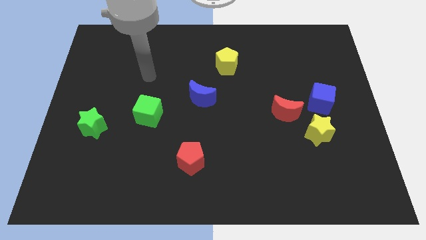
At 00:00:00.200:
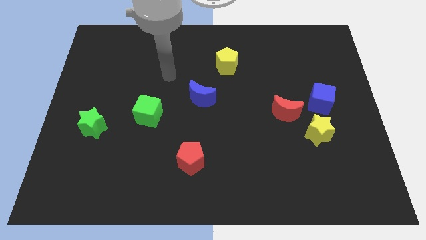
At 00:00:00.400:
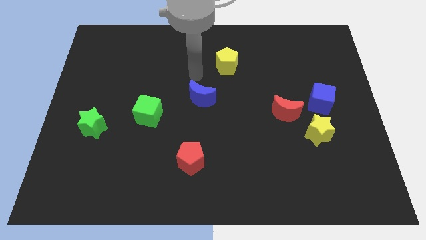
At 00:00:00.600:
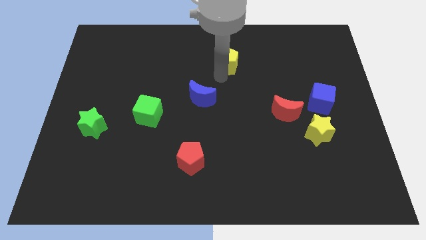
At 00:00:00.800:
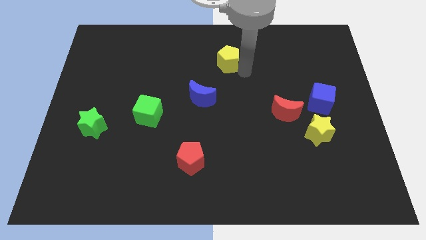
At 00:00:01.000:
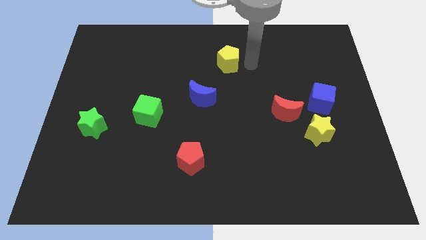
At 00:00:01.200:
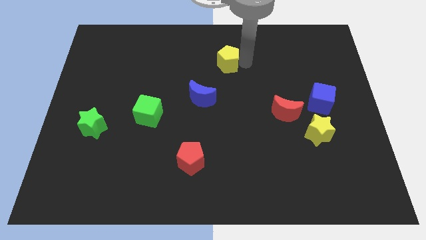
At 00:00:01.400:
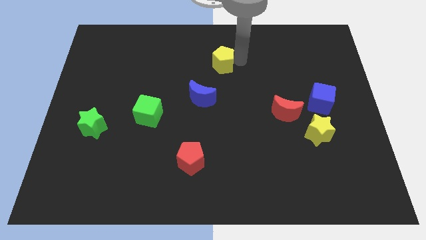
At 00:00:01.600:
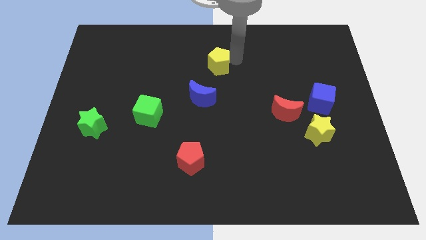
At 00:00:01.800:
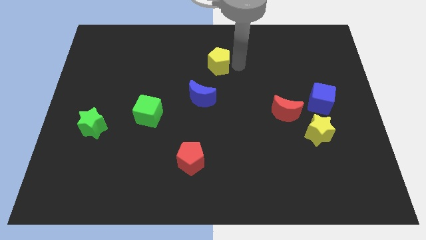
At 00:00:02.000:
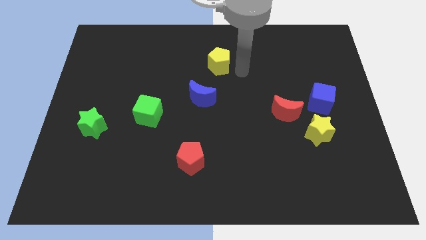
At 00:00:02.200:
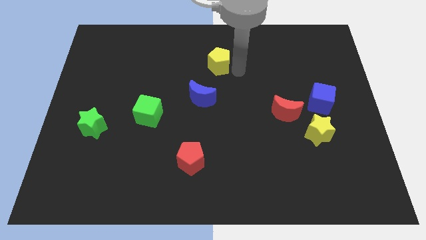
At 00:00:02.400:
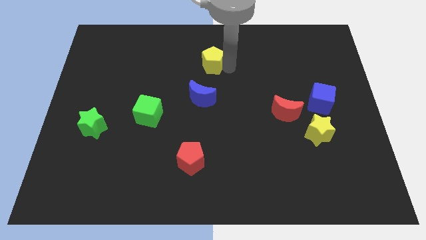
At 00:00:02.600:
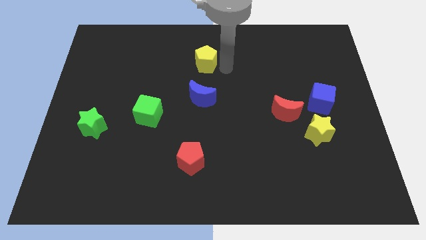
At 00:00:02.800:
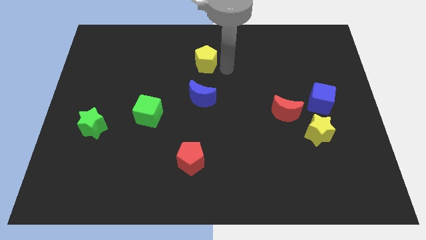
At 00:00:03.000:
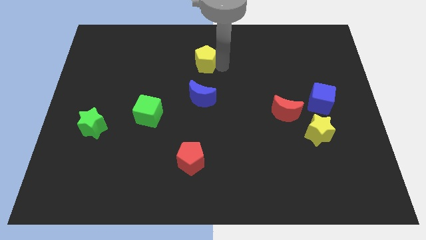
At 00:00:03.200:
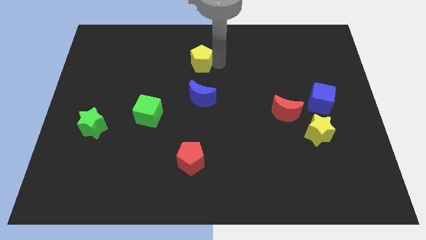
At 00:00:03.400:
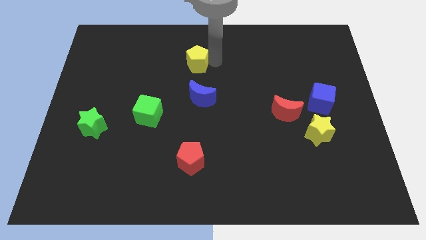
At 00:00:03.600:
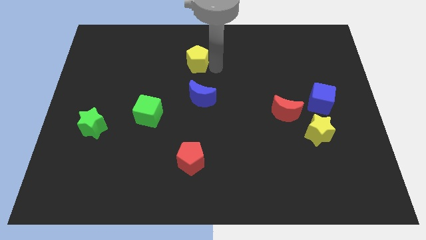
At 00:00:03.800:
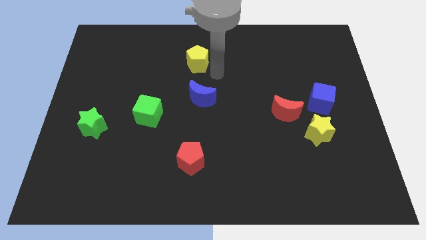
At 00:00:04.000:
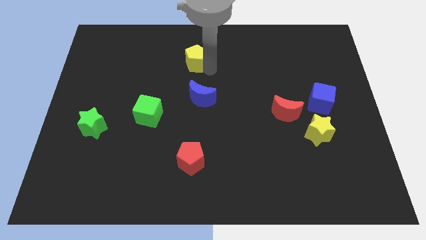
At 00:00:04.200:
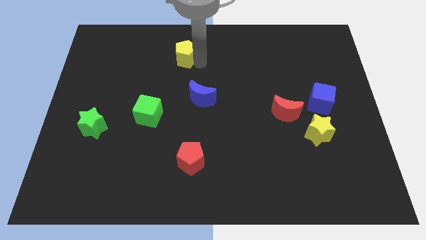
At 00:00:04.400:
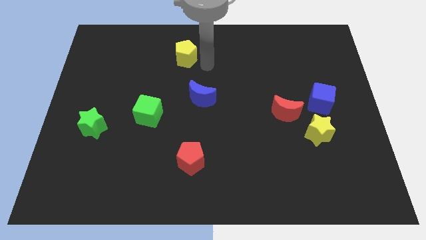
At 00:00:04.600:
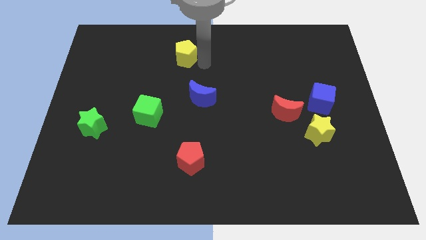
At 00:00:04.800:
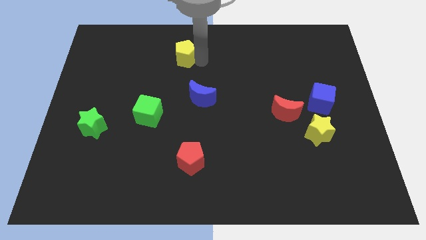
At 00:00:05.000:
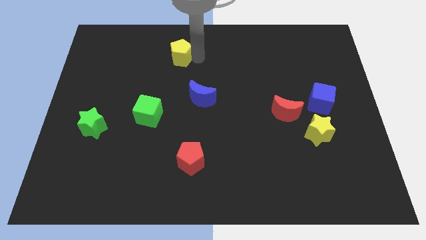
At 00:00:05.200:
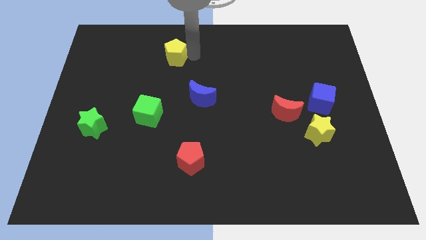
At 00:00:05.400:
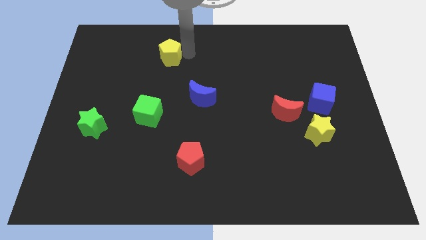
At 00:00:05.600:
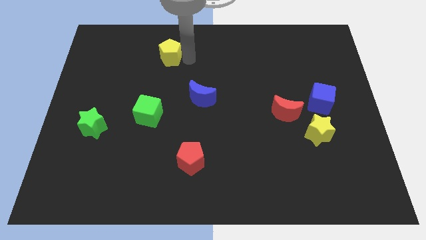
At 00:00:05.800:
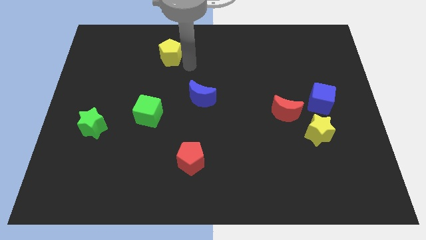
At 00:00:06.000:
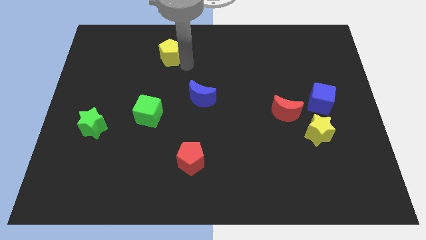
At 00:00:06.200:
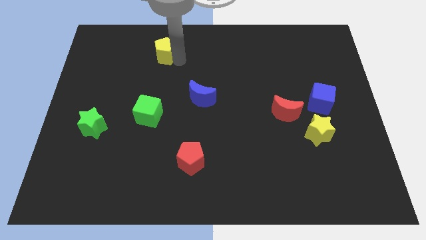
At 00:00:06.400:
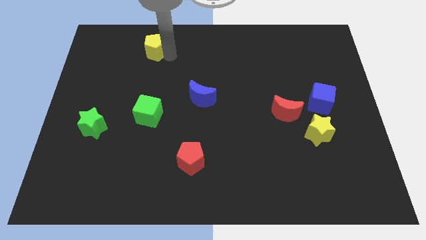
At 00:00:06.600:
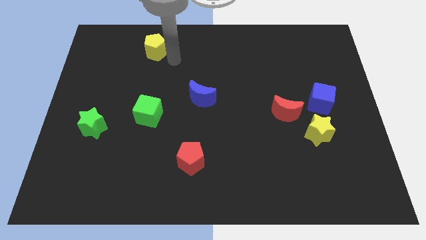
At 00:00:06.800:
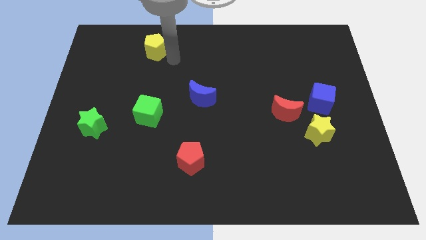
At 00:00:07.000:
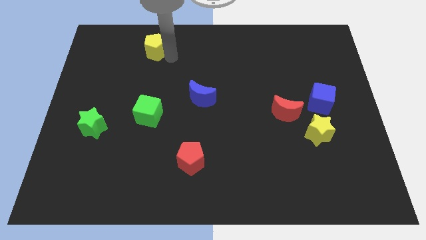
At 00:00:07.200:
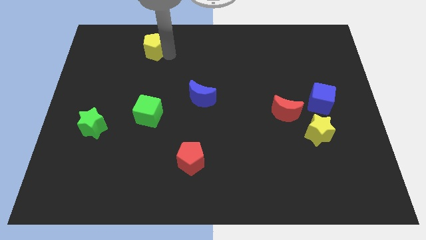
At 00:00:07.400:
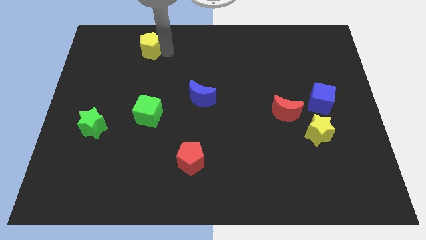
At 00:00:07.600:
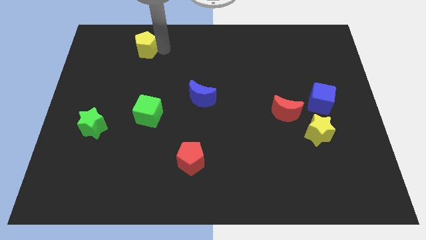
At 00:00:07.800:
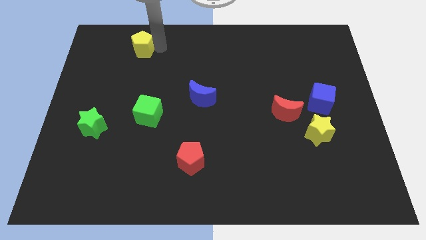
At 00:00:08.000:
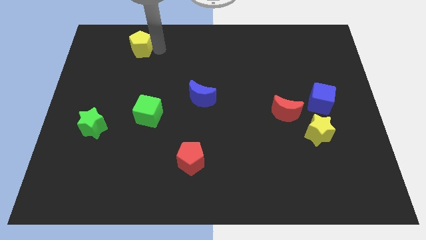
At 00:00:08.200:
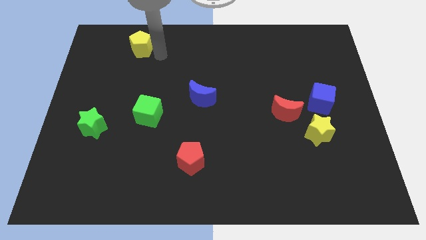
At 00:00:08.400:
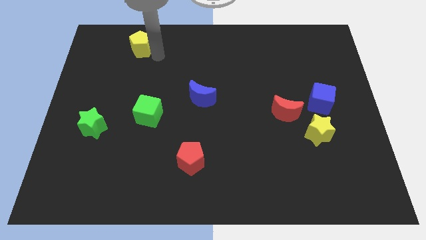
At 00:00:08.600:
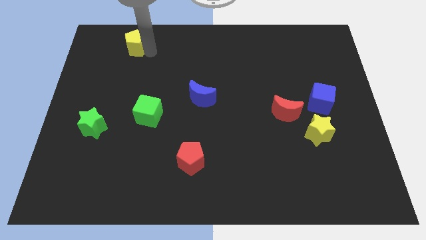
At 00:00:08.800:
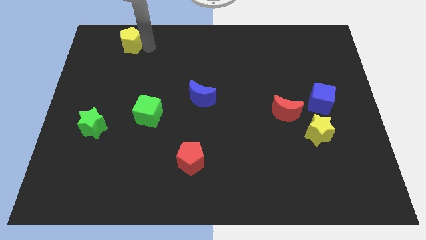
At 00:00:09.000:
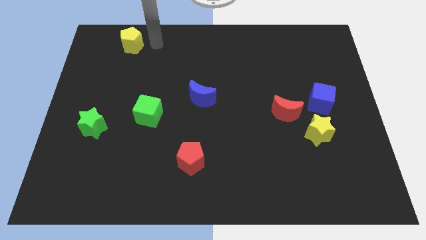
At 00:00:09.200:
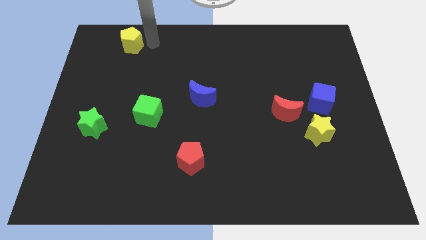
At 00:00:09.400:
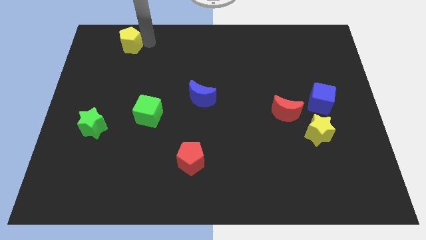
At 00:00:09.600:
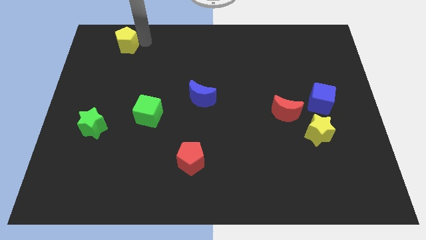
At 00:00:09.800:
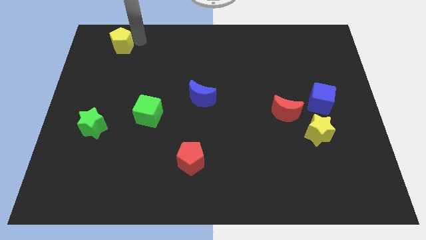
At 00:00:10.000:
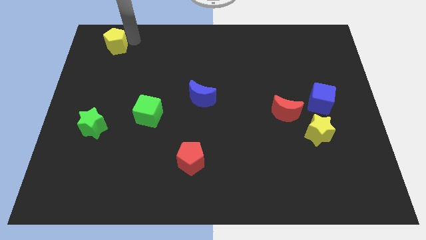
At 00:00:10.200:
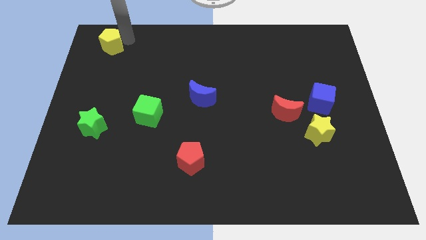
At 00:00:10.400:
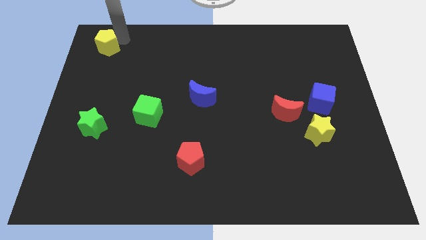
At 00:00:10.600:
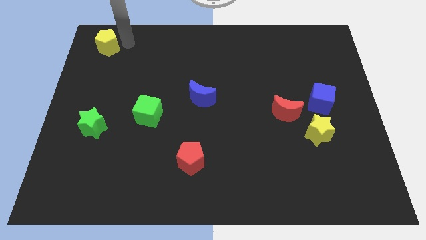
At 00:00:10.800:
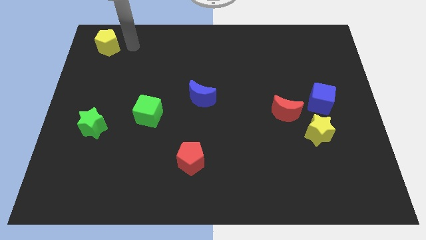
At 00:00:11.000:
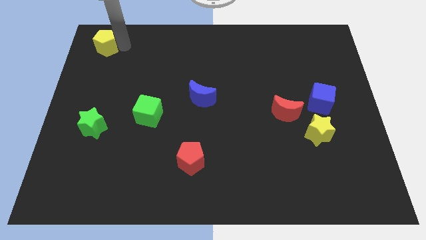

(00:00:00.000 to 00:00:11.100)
put the yellow pentagon to the top left

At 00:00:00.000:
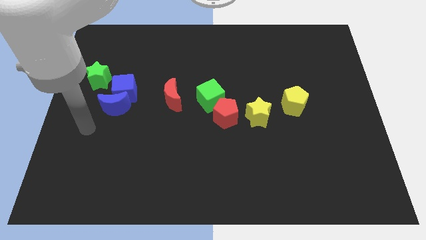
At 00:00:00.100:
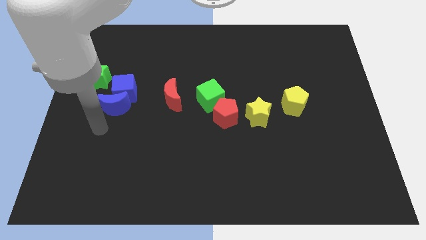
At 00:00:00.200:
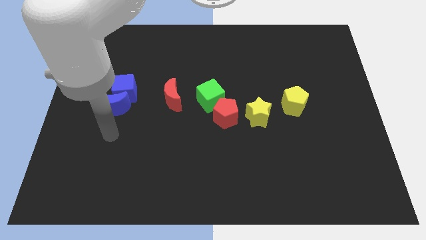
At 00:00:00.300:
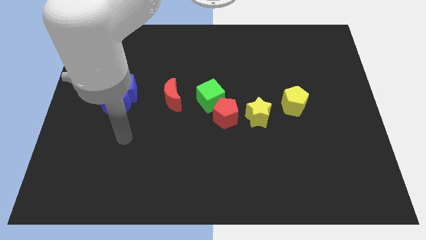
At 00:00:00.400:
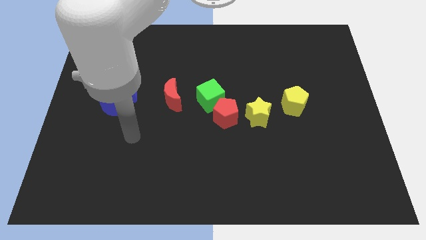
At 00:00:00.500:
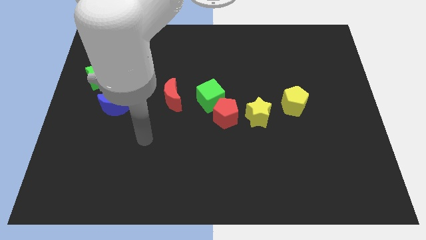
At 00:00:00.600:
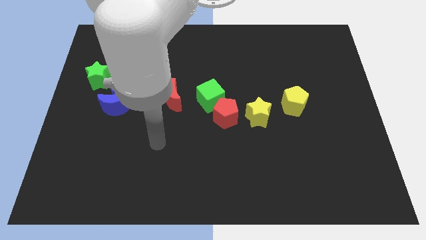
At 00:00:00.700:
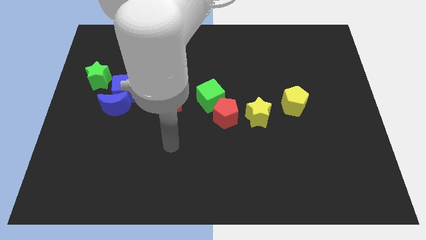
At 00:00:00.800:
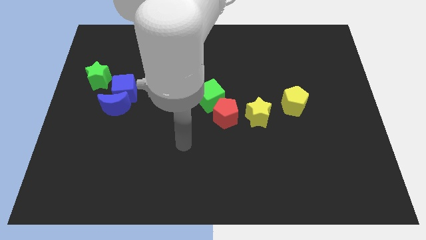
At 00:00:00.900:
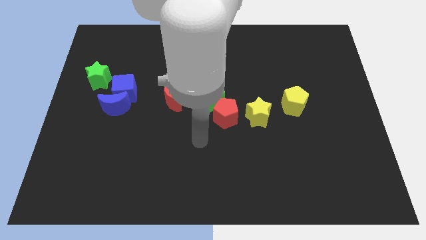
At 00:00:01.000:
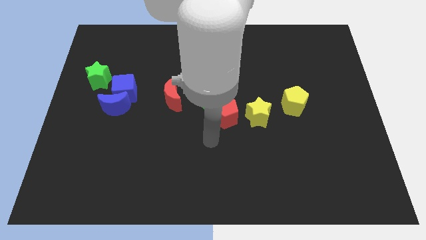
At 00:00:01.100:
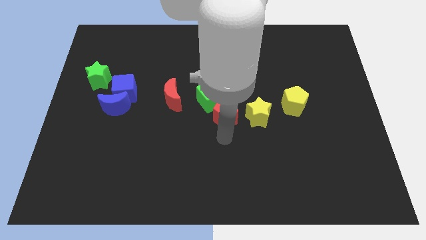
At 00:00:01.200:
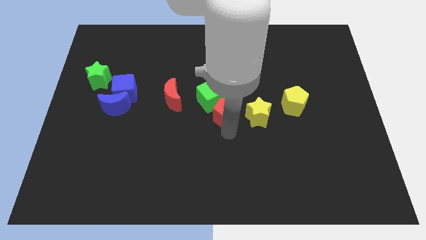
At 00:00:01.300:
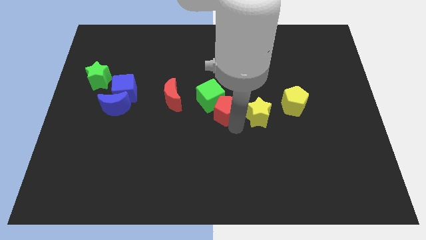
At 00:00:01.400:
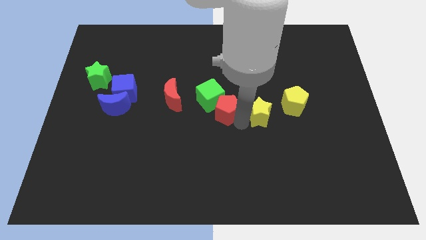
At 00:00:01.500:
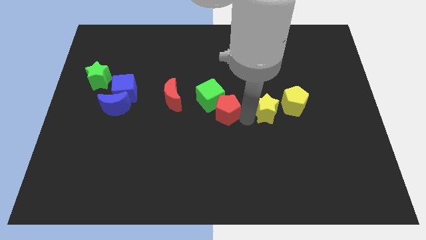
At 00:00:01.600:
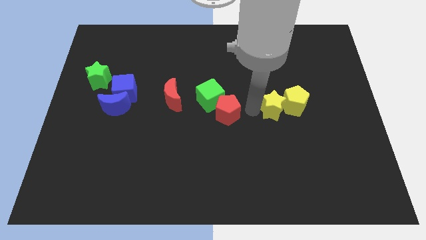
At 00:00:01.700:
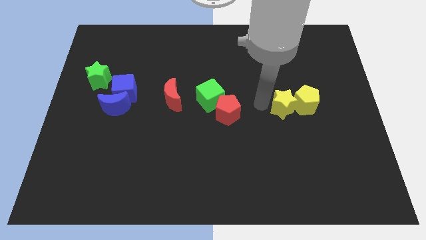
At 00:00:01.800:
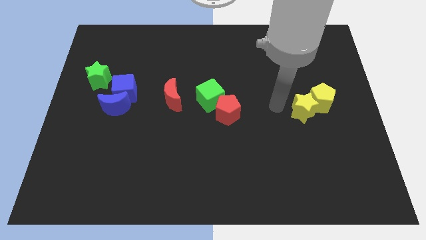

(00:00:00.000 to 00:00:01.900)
push the yellow pentagon to the right side of the board

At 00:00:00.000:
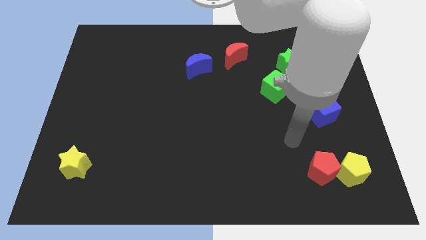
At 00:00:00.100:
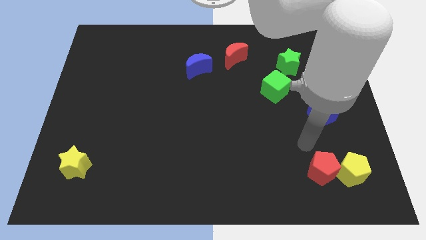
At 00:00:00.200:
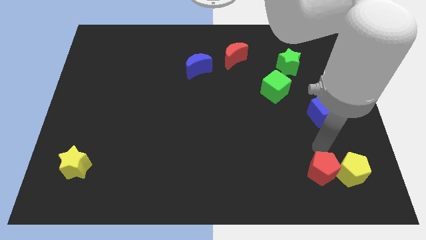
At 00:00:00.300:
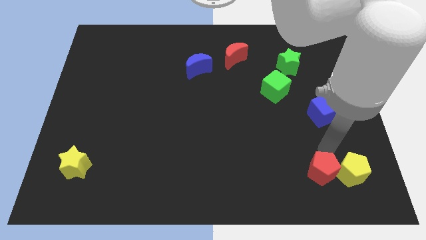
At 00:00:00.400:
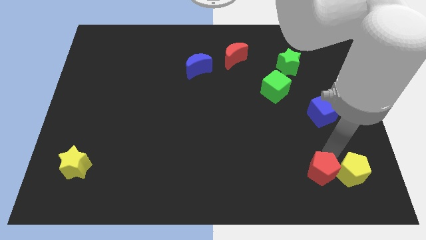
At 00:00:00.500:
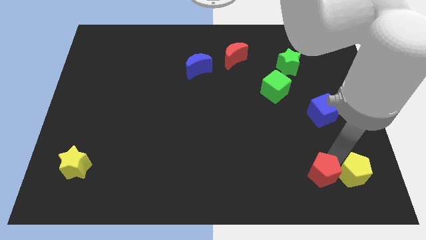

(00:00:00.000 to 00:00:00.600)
move the yellow pentagon to the bottom right

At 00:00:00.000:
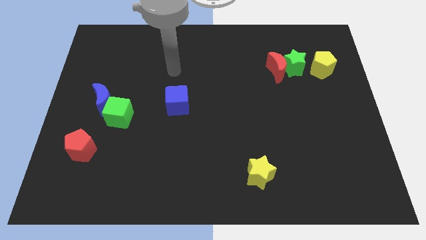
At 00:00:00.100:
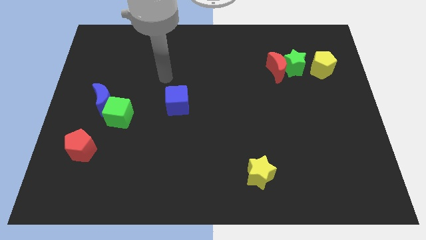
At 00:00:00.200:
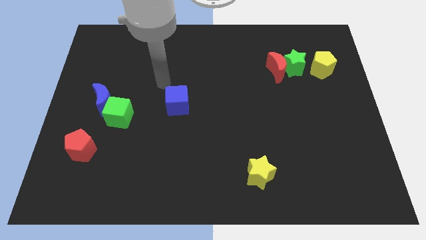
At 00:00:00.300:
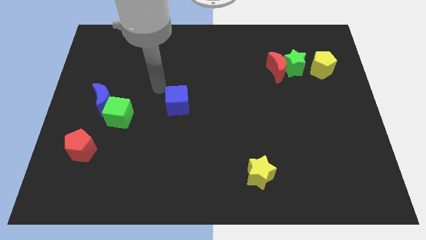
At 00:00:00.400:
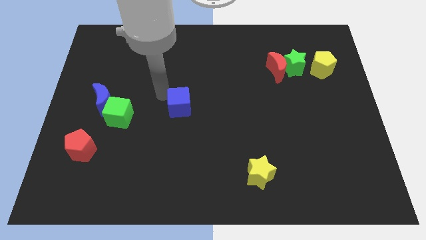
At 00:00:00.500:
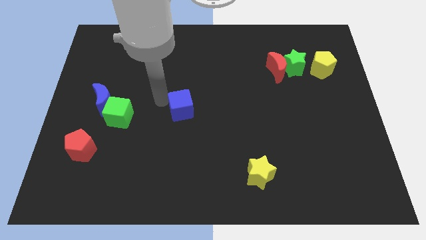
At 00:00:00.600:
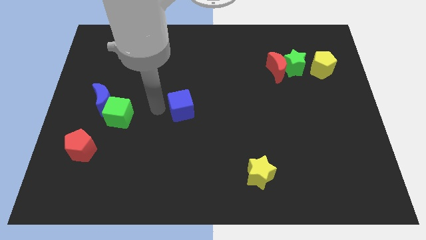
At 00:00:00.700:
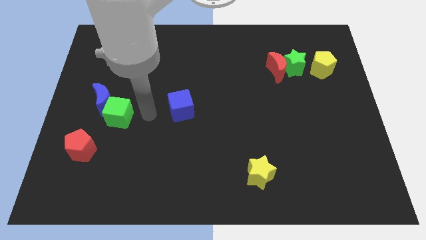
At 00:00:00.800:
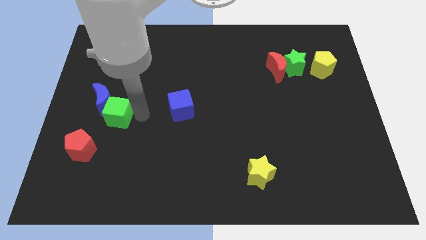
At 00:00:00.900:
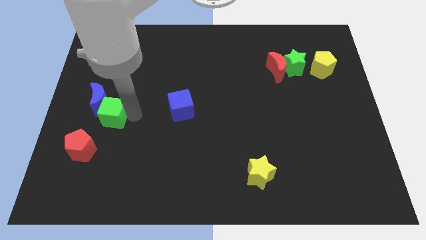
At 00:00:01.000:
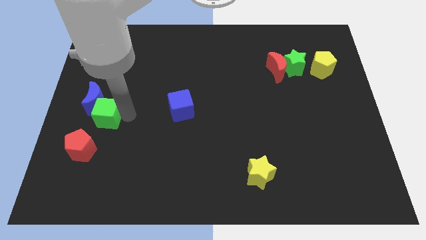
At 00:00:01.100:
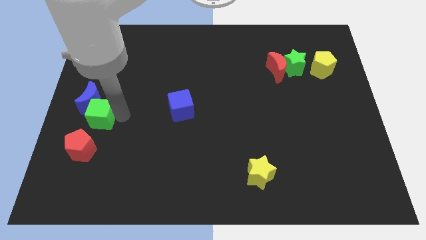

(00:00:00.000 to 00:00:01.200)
slide the green cube to the left side of the board
